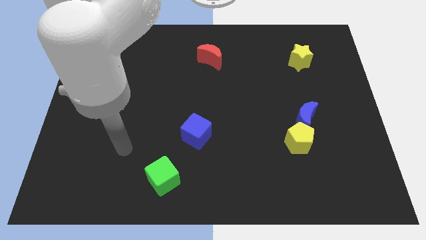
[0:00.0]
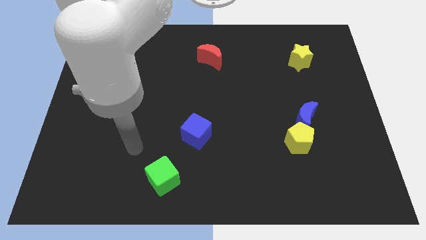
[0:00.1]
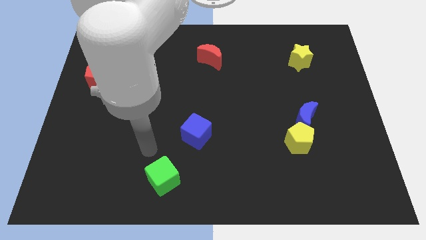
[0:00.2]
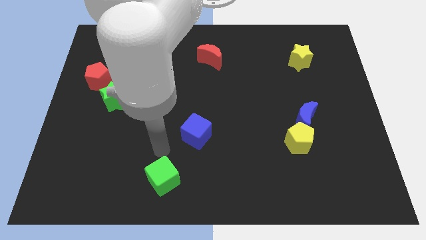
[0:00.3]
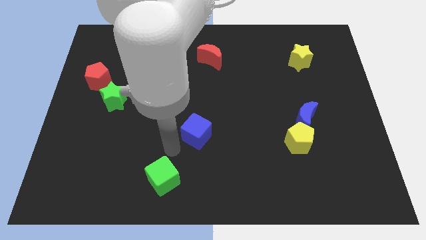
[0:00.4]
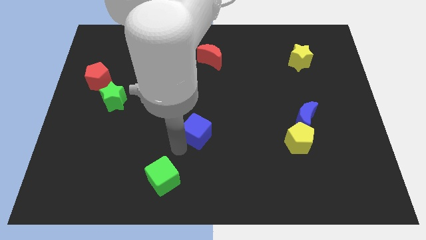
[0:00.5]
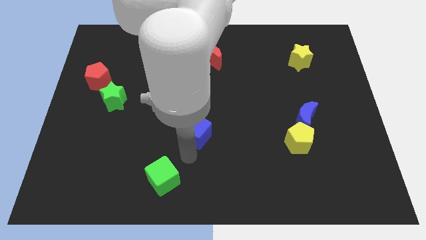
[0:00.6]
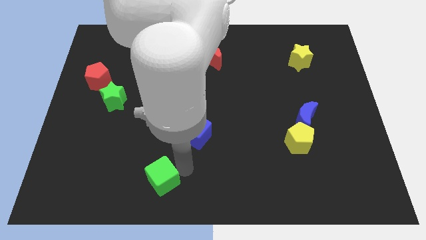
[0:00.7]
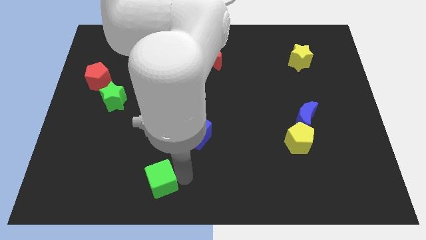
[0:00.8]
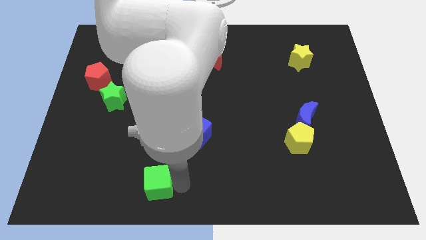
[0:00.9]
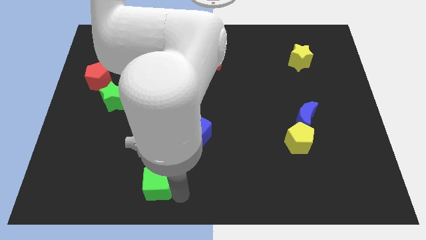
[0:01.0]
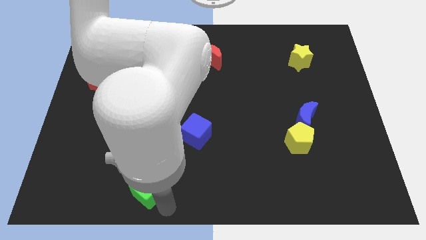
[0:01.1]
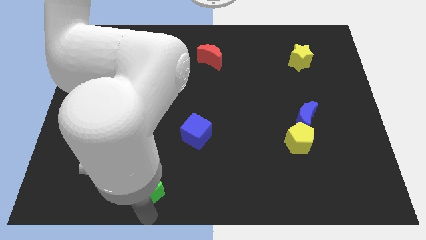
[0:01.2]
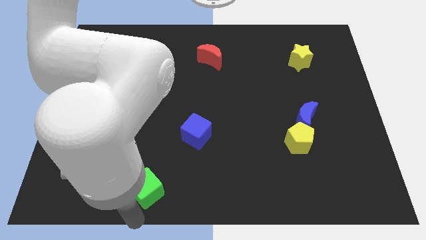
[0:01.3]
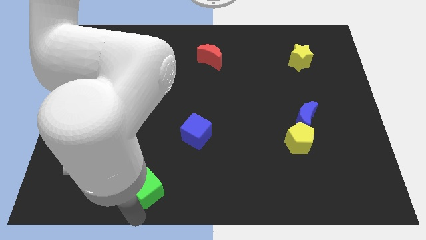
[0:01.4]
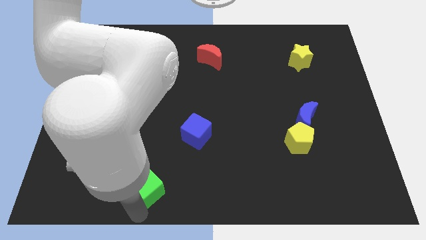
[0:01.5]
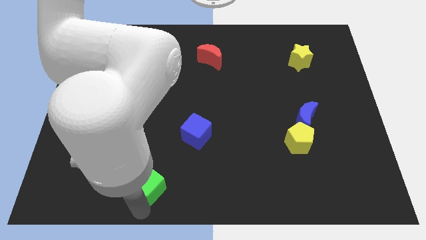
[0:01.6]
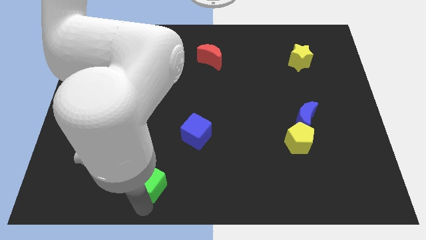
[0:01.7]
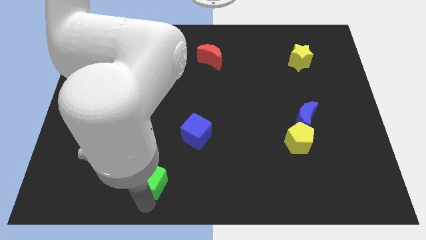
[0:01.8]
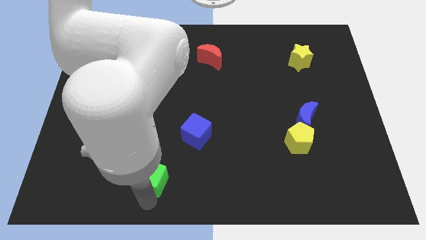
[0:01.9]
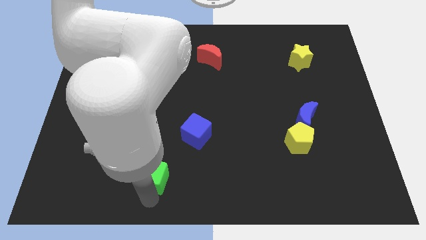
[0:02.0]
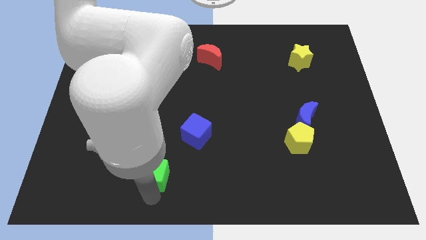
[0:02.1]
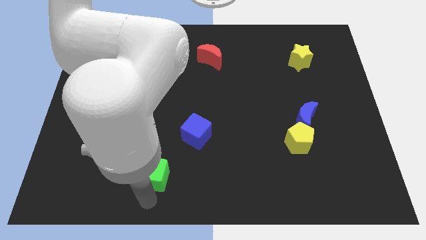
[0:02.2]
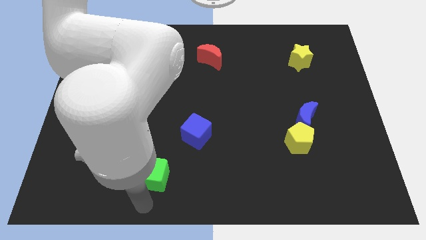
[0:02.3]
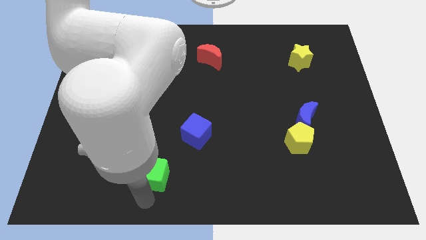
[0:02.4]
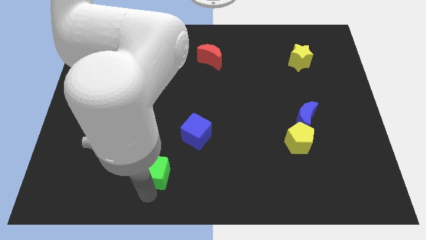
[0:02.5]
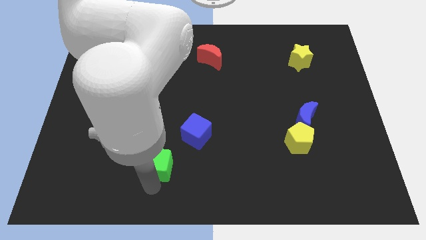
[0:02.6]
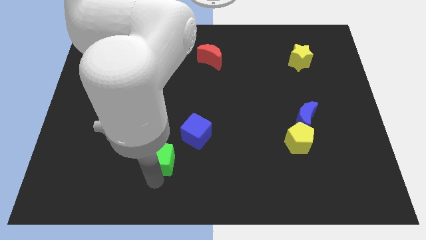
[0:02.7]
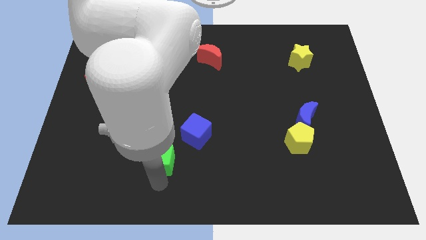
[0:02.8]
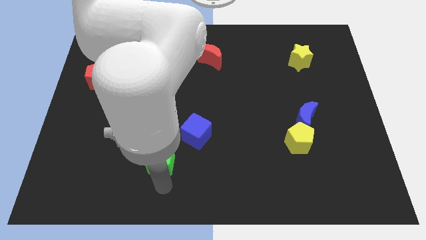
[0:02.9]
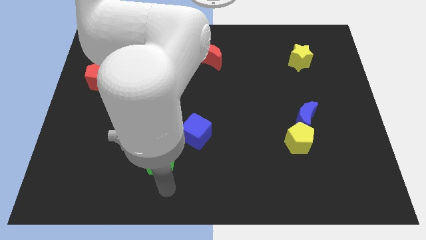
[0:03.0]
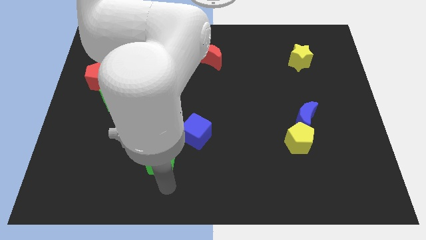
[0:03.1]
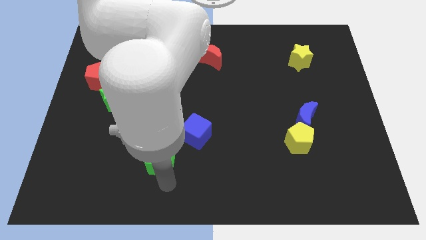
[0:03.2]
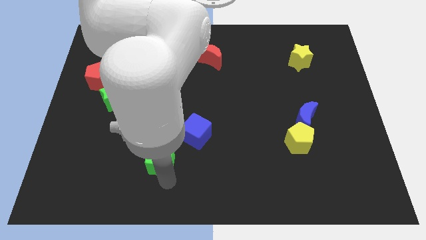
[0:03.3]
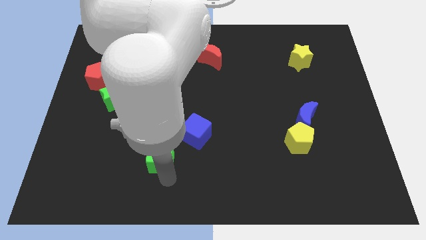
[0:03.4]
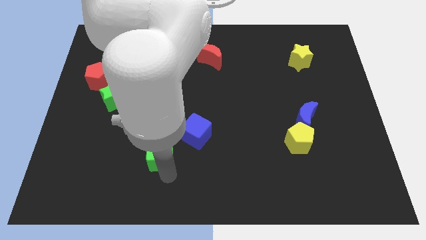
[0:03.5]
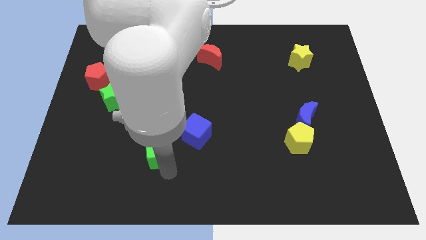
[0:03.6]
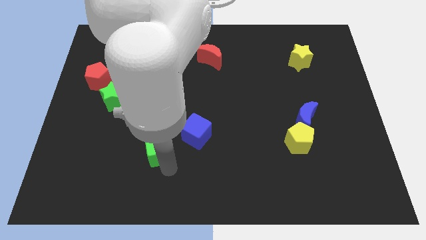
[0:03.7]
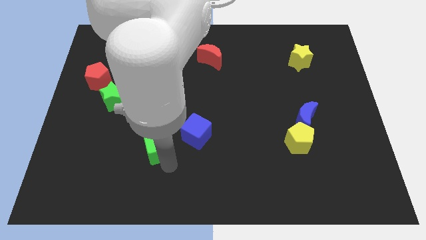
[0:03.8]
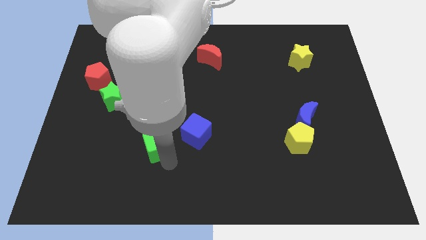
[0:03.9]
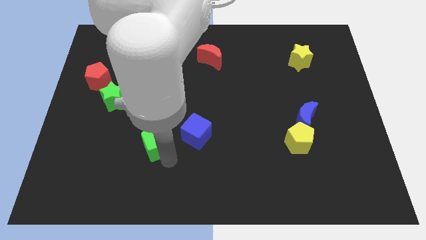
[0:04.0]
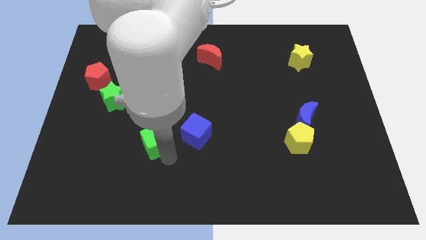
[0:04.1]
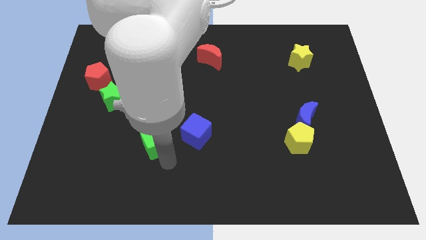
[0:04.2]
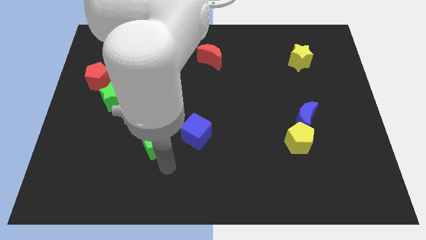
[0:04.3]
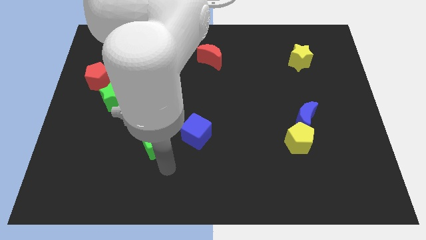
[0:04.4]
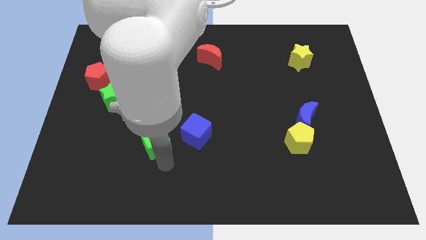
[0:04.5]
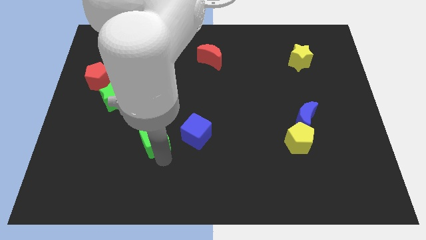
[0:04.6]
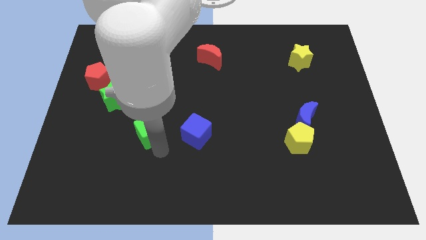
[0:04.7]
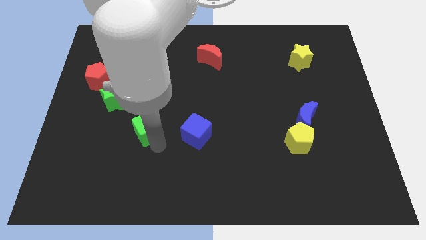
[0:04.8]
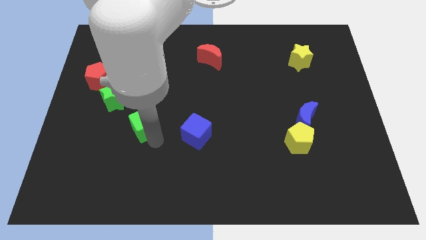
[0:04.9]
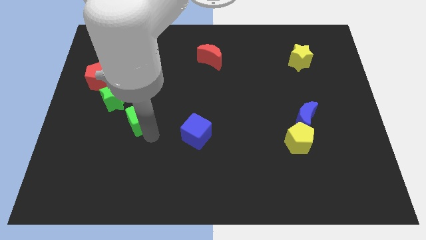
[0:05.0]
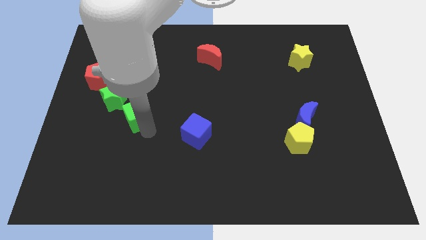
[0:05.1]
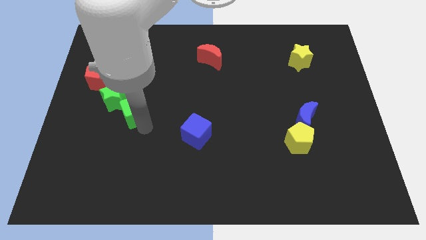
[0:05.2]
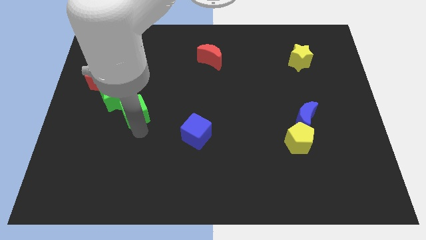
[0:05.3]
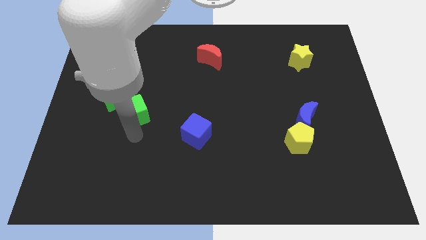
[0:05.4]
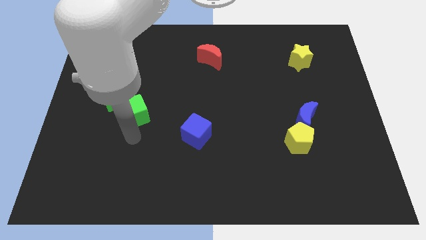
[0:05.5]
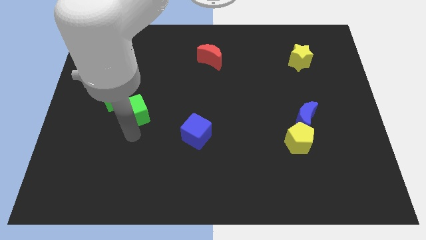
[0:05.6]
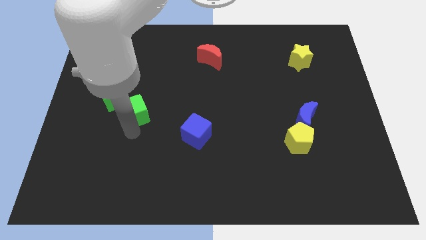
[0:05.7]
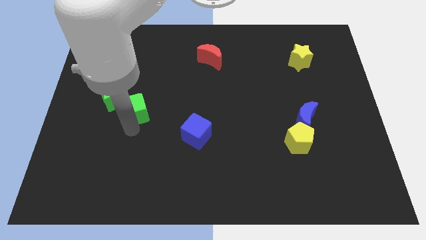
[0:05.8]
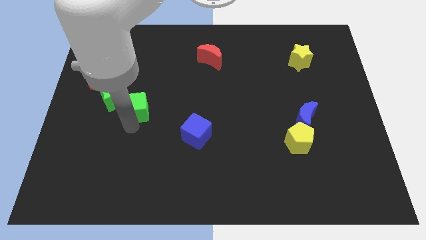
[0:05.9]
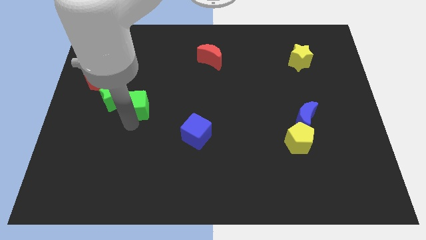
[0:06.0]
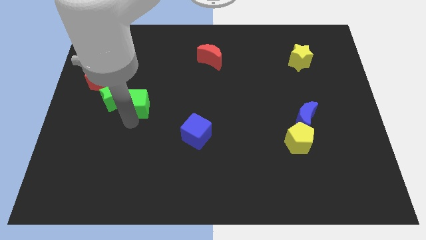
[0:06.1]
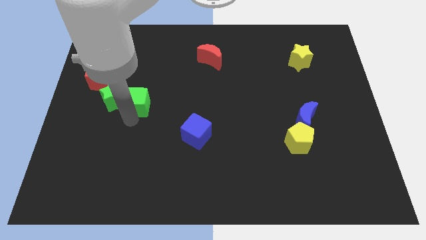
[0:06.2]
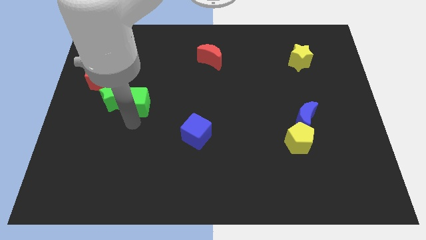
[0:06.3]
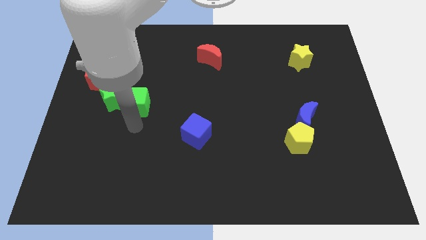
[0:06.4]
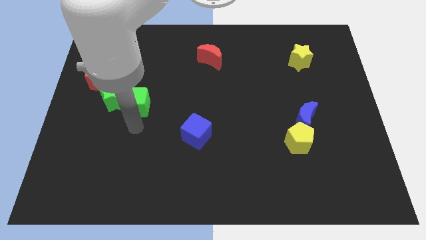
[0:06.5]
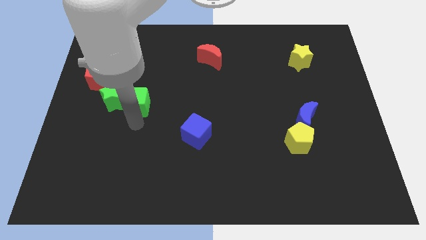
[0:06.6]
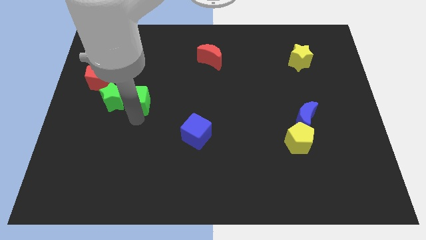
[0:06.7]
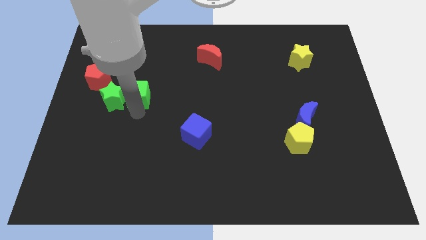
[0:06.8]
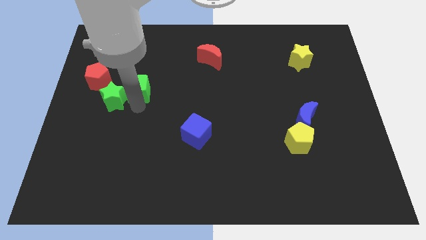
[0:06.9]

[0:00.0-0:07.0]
slide the green cube right of the red pentagon
